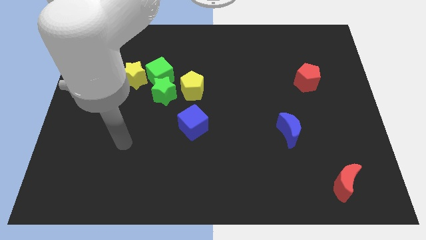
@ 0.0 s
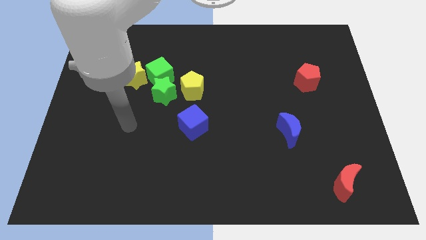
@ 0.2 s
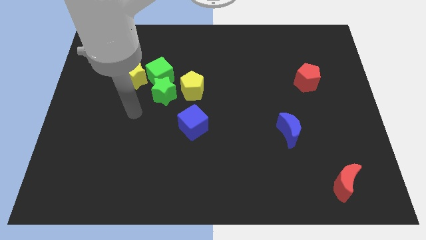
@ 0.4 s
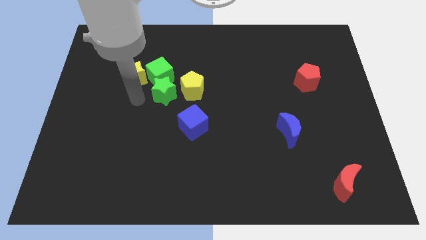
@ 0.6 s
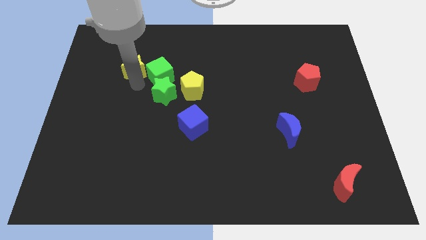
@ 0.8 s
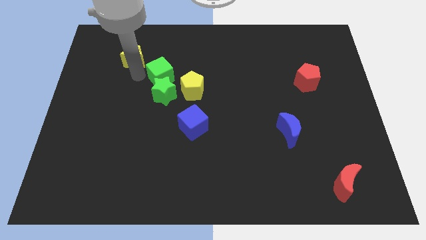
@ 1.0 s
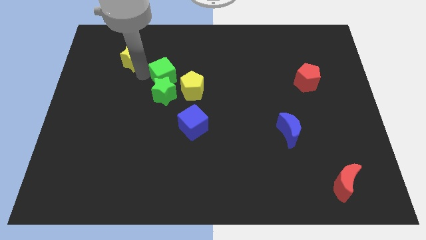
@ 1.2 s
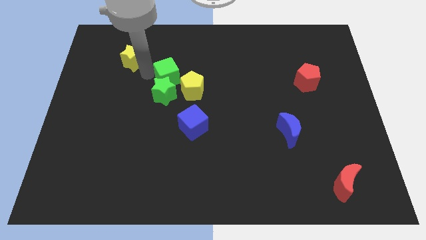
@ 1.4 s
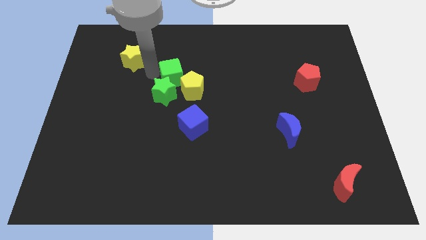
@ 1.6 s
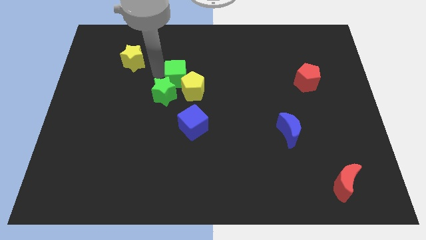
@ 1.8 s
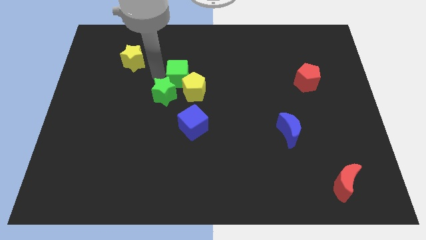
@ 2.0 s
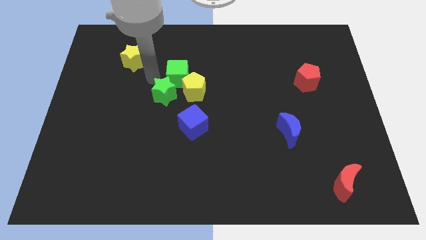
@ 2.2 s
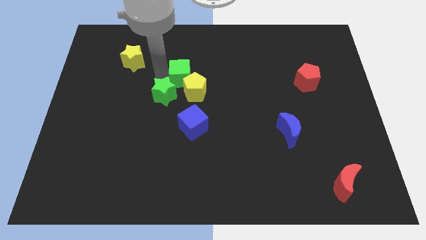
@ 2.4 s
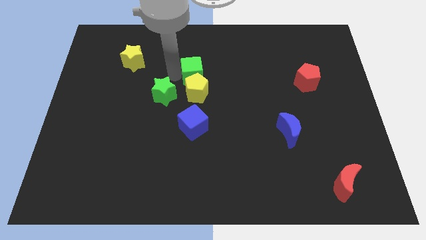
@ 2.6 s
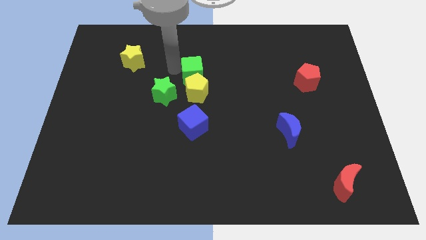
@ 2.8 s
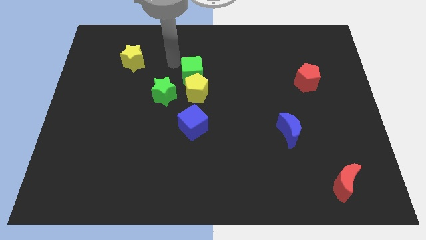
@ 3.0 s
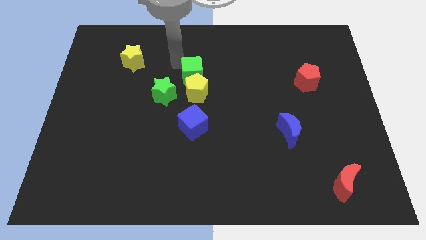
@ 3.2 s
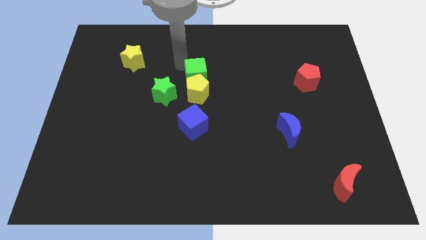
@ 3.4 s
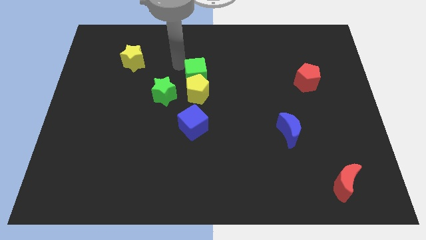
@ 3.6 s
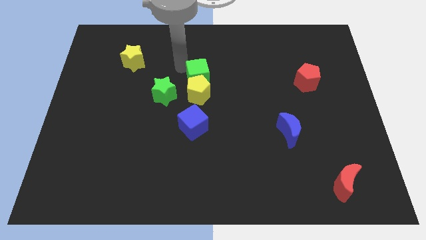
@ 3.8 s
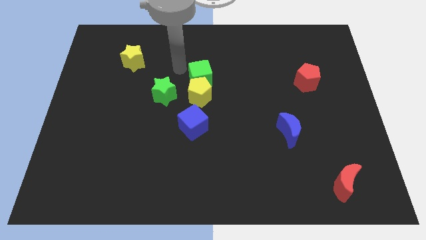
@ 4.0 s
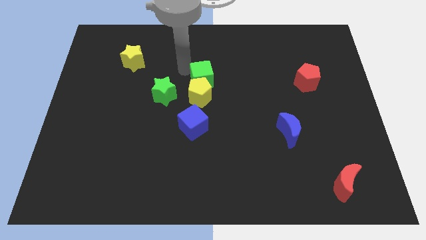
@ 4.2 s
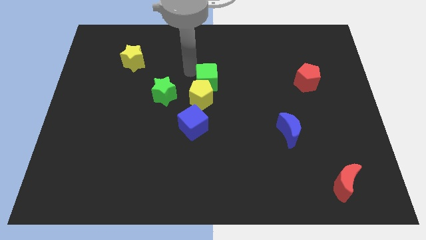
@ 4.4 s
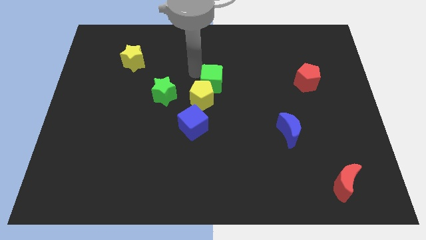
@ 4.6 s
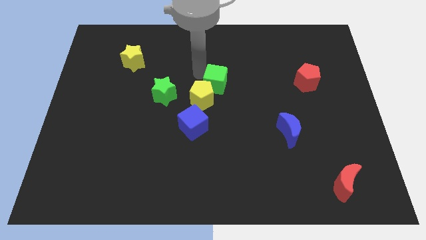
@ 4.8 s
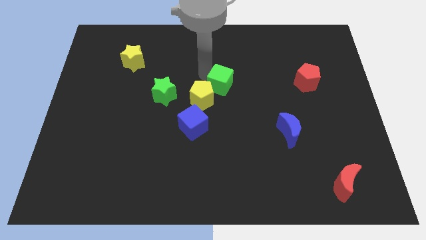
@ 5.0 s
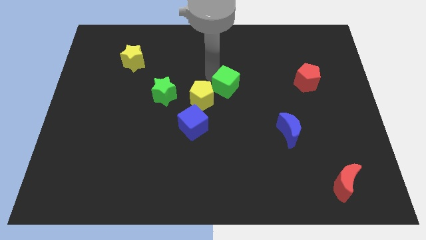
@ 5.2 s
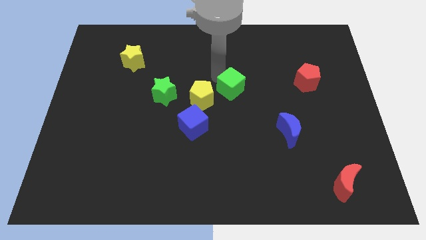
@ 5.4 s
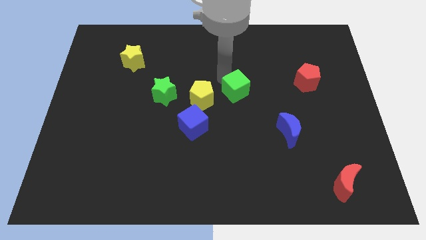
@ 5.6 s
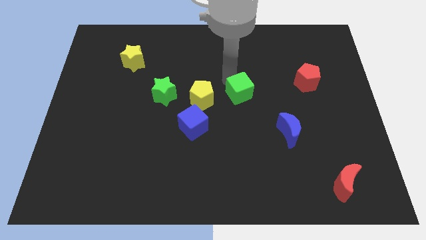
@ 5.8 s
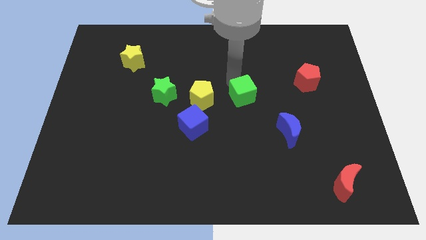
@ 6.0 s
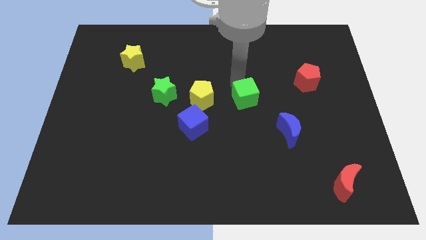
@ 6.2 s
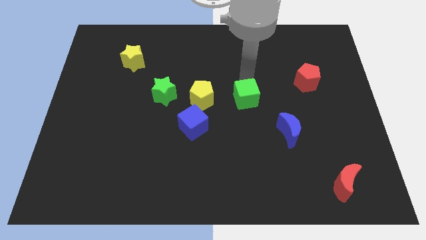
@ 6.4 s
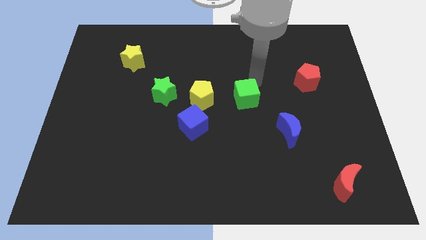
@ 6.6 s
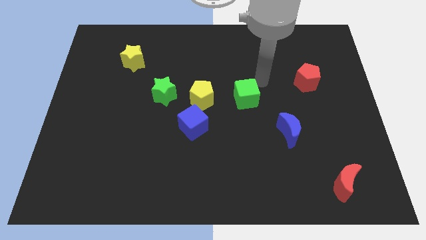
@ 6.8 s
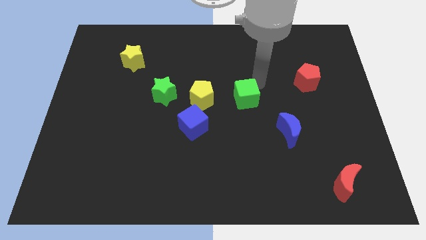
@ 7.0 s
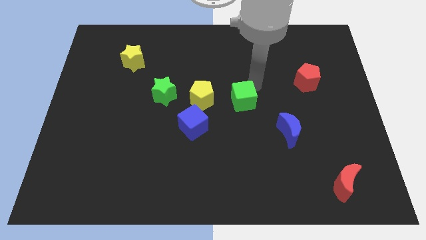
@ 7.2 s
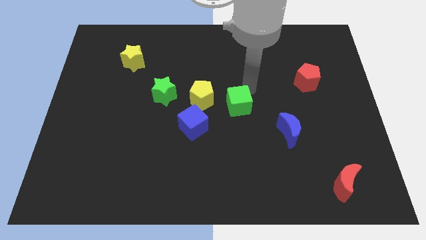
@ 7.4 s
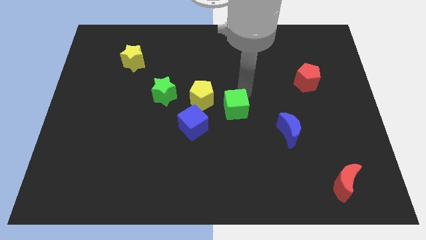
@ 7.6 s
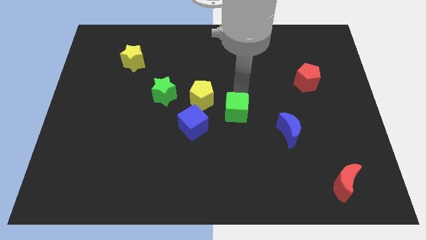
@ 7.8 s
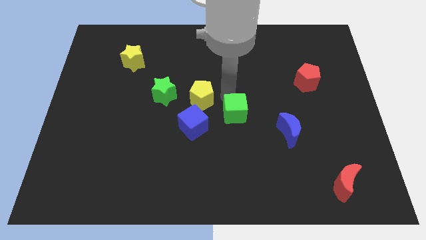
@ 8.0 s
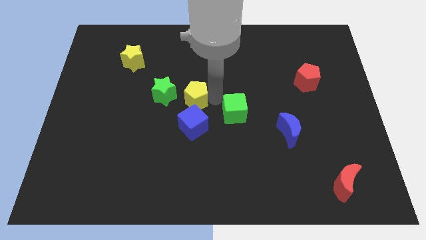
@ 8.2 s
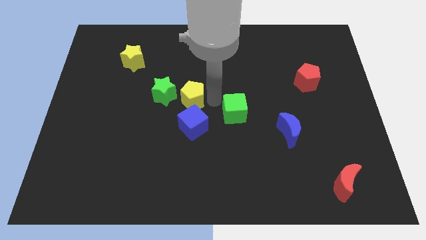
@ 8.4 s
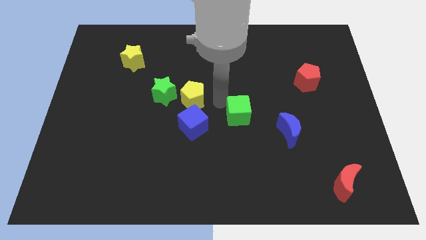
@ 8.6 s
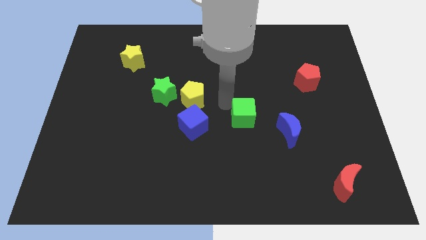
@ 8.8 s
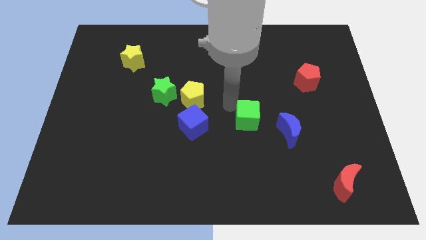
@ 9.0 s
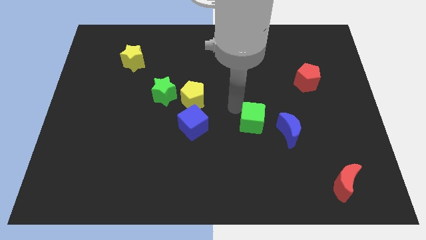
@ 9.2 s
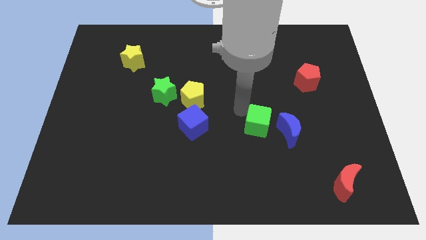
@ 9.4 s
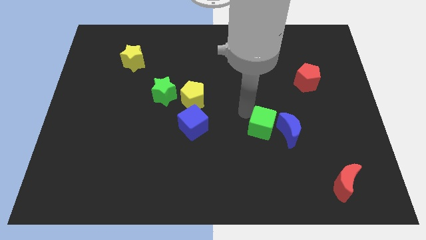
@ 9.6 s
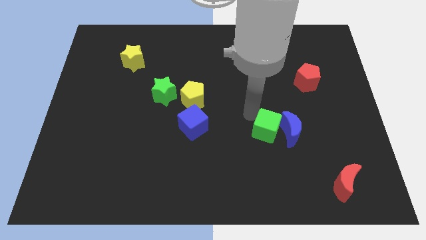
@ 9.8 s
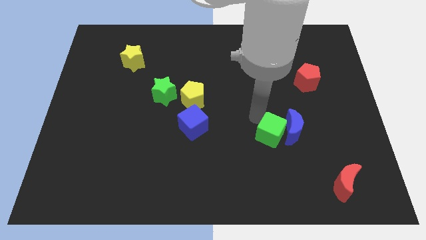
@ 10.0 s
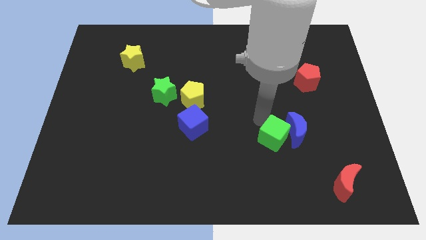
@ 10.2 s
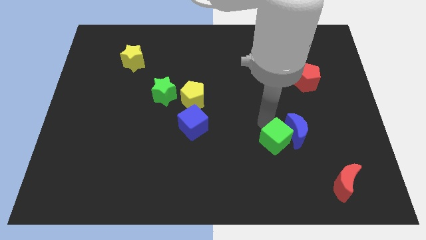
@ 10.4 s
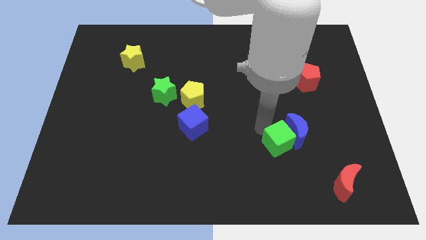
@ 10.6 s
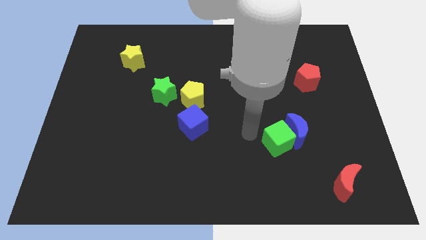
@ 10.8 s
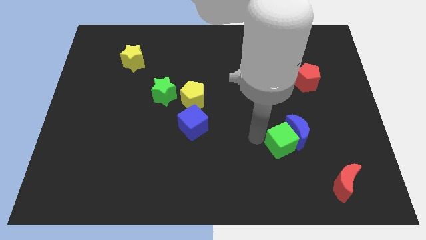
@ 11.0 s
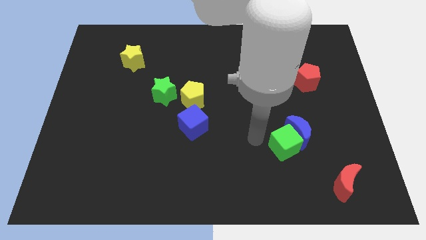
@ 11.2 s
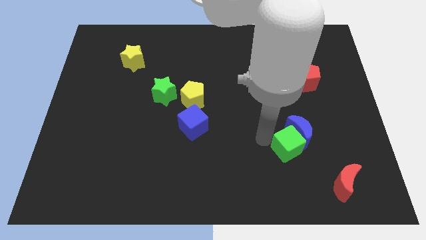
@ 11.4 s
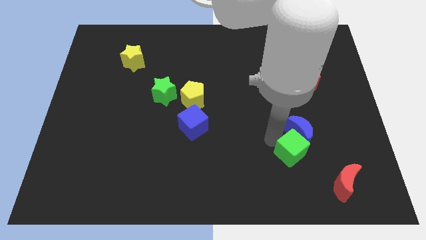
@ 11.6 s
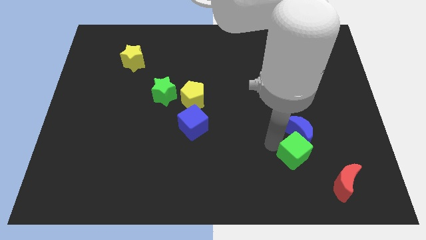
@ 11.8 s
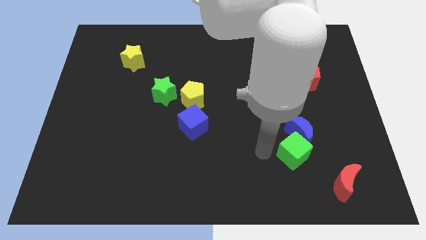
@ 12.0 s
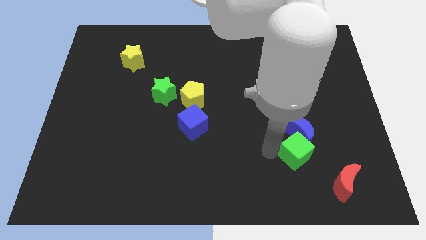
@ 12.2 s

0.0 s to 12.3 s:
move the green cube diagonally down and to the right of the blue moon
